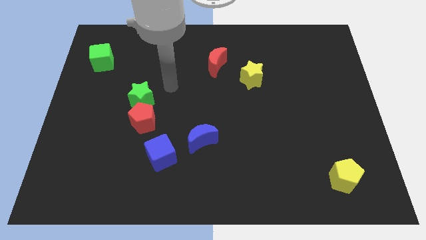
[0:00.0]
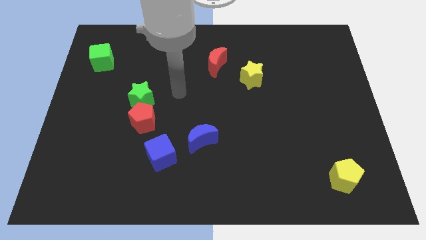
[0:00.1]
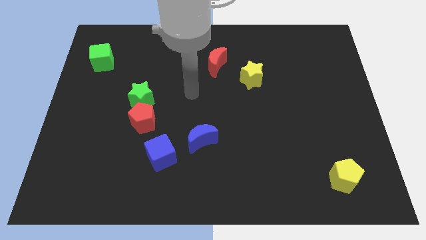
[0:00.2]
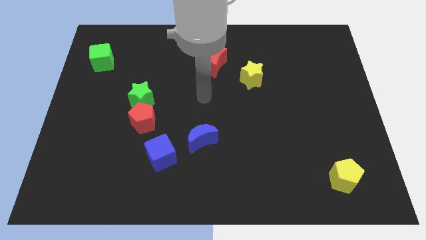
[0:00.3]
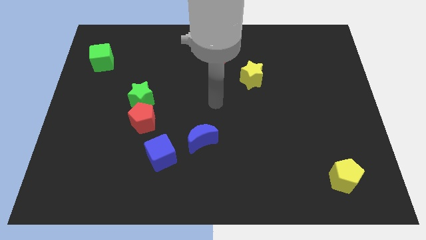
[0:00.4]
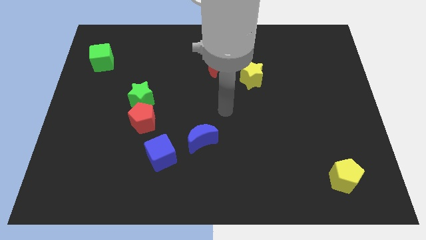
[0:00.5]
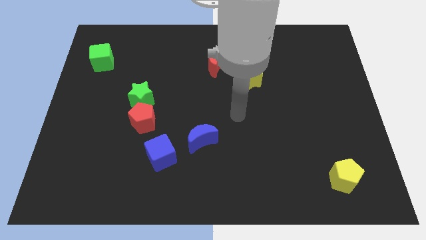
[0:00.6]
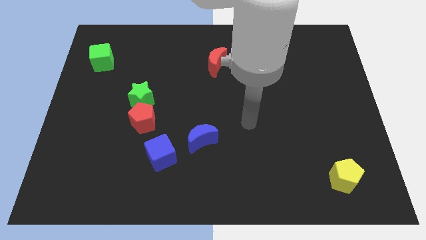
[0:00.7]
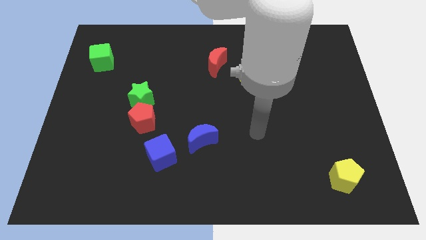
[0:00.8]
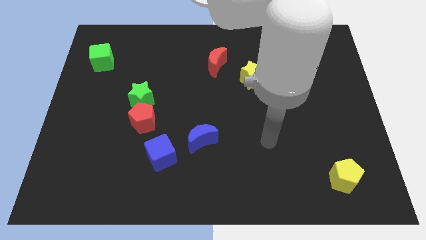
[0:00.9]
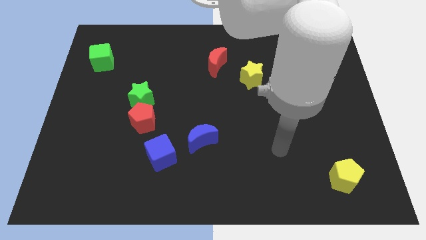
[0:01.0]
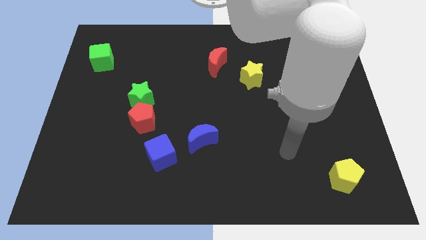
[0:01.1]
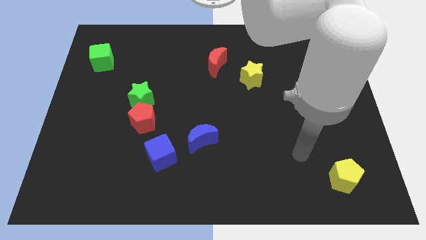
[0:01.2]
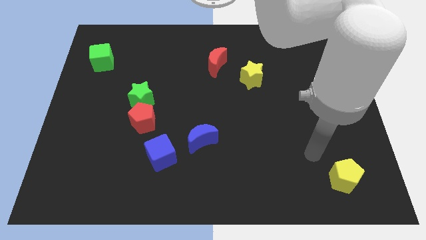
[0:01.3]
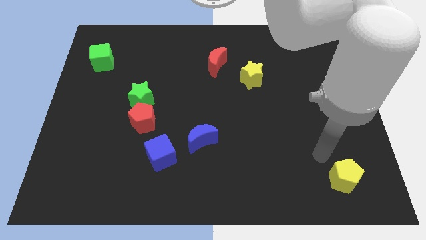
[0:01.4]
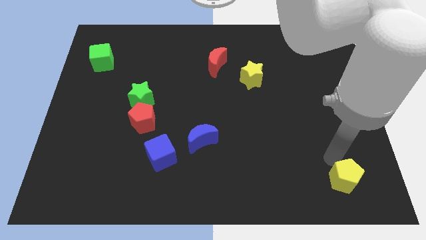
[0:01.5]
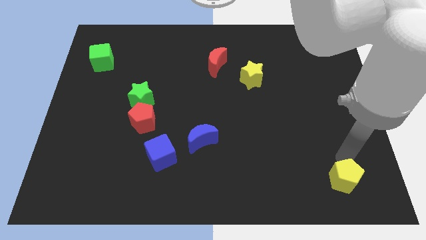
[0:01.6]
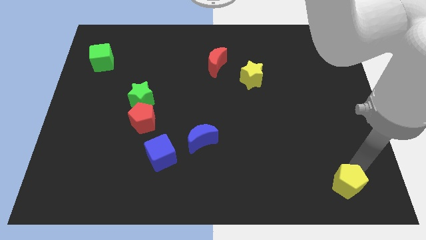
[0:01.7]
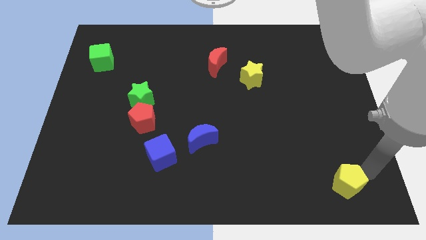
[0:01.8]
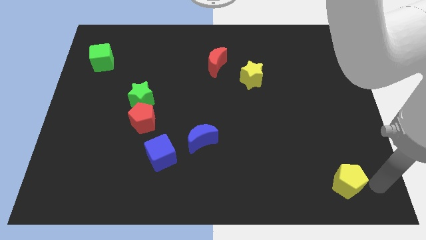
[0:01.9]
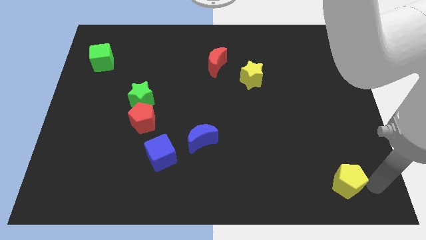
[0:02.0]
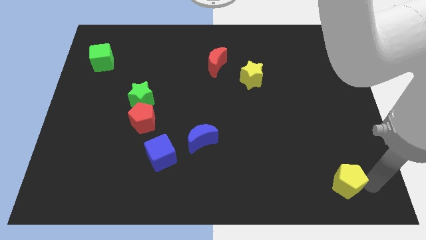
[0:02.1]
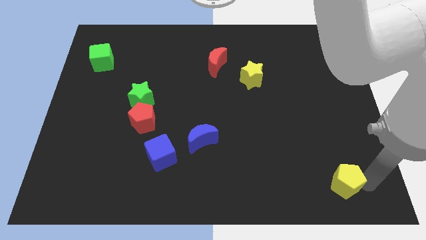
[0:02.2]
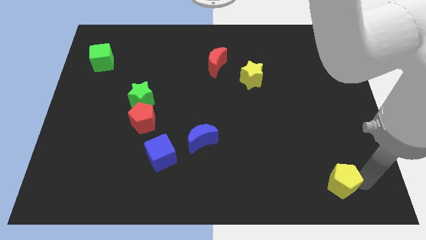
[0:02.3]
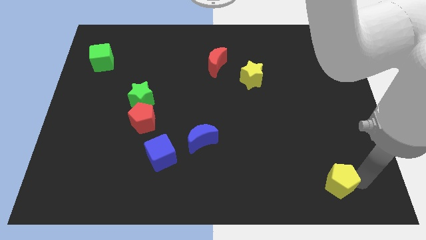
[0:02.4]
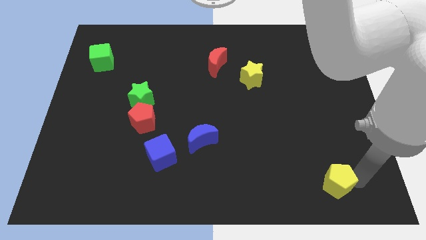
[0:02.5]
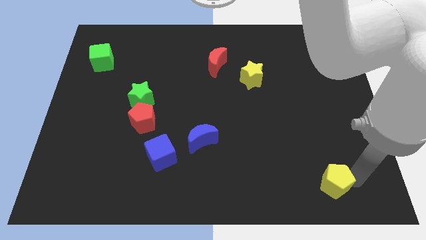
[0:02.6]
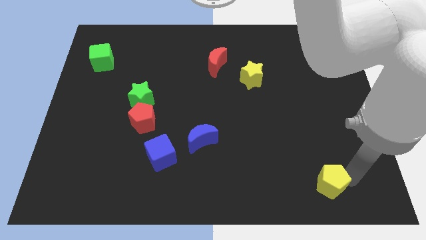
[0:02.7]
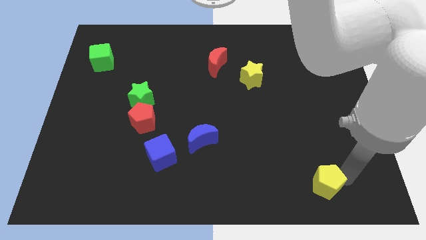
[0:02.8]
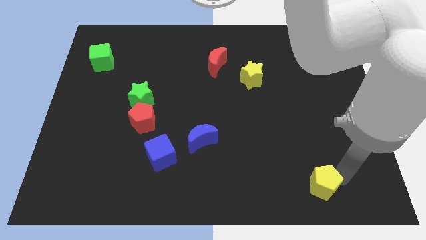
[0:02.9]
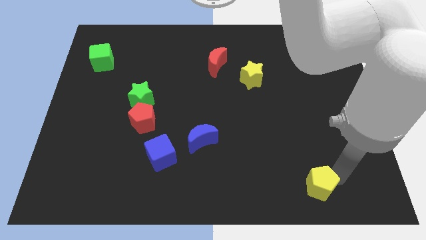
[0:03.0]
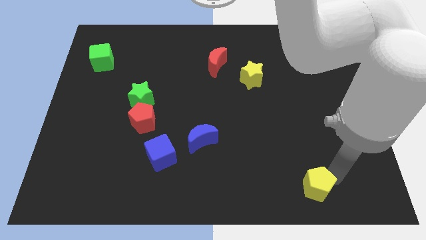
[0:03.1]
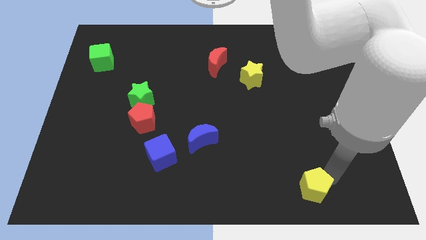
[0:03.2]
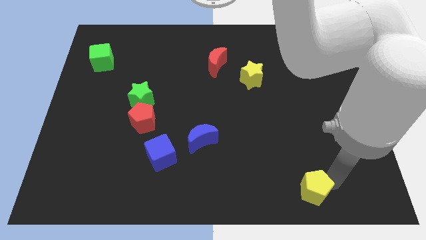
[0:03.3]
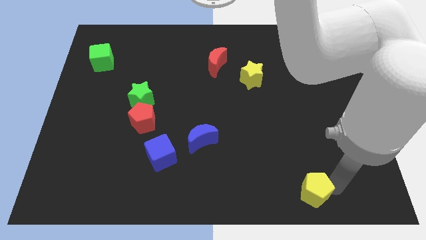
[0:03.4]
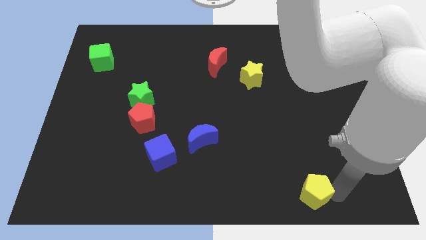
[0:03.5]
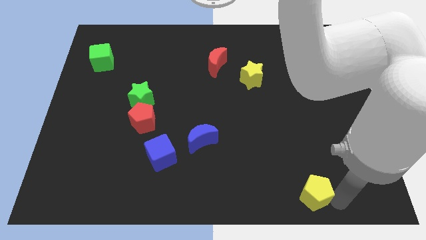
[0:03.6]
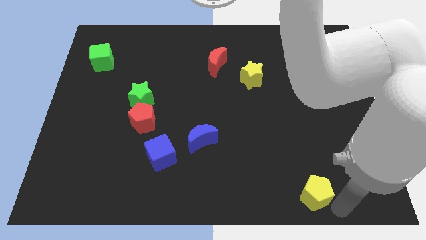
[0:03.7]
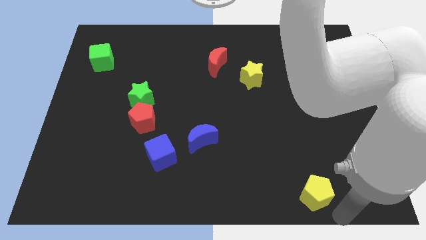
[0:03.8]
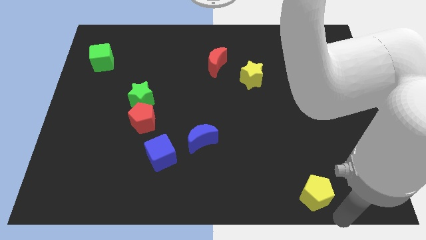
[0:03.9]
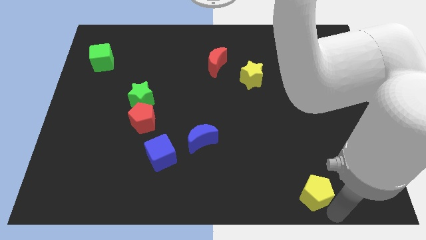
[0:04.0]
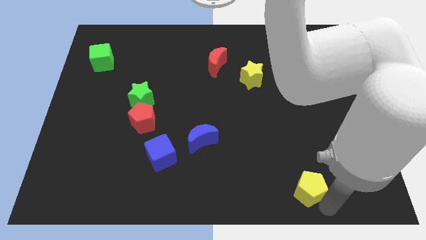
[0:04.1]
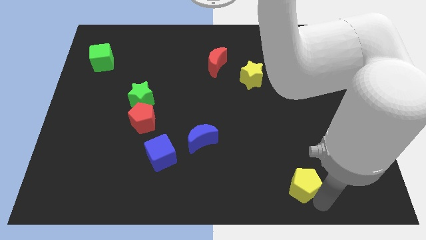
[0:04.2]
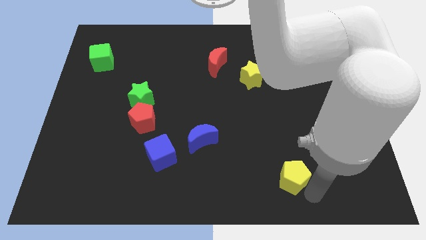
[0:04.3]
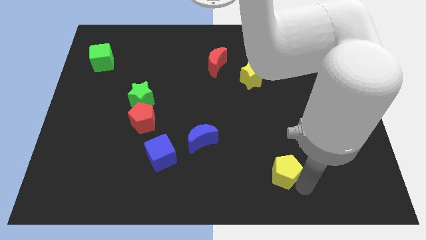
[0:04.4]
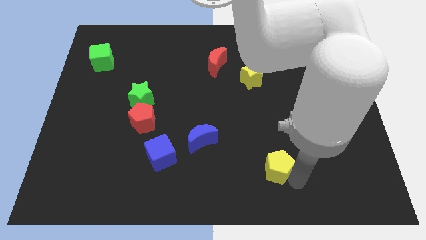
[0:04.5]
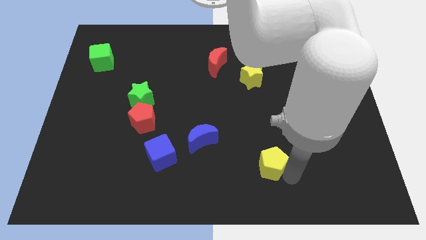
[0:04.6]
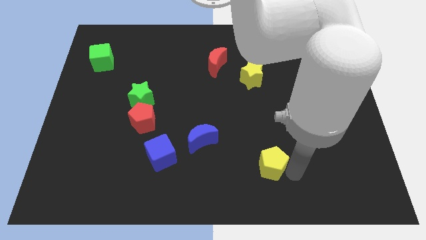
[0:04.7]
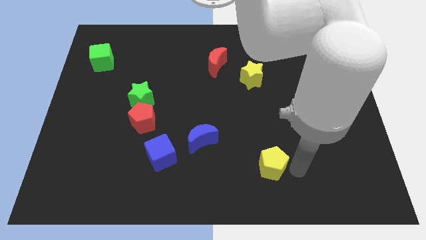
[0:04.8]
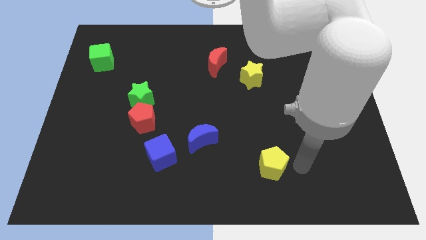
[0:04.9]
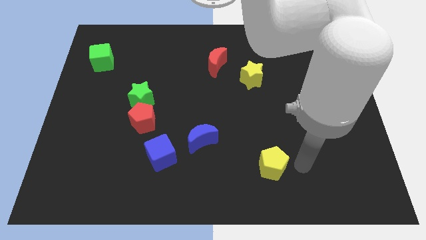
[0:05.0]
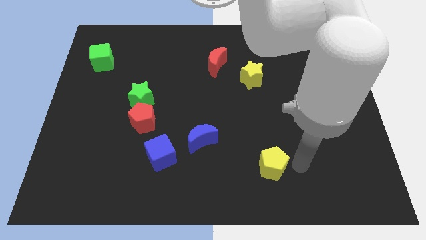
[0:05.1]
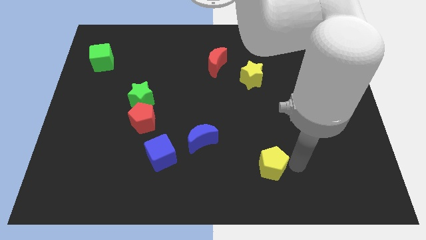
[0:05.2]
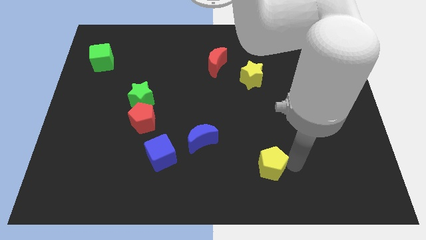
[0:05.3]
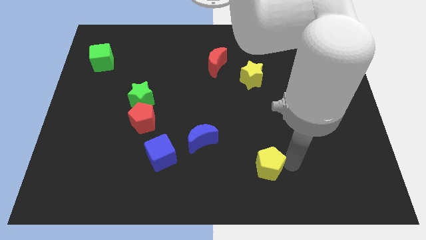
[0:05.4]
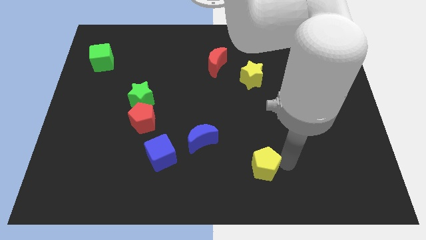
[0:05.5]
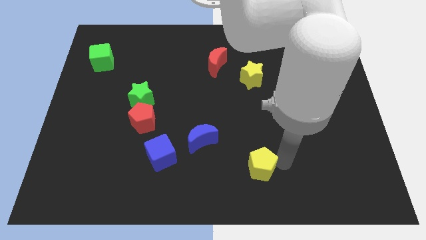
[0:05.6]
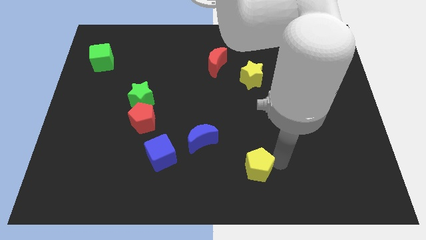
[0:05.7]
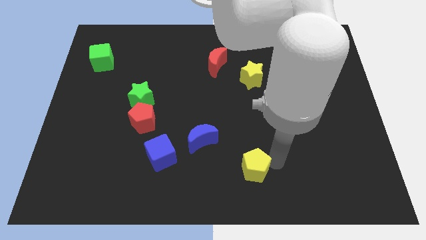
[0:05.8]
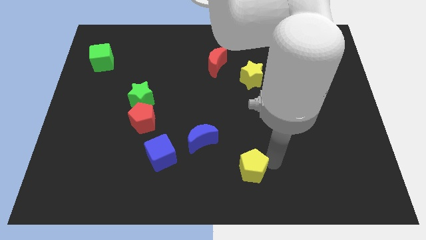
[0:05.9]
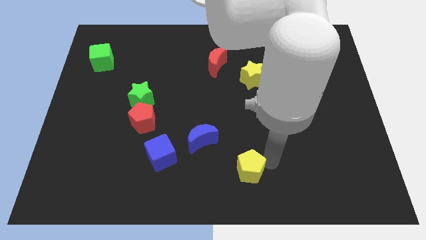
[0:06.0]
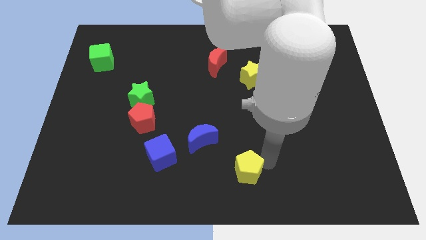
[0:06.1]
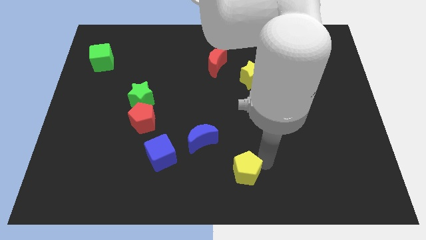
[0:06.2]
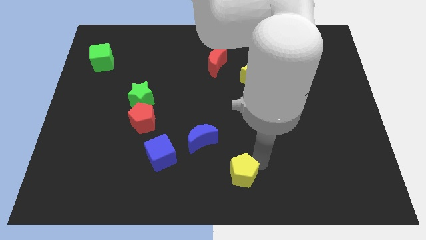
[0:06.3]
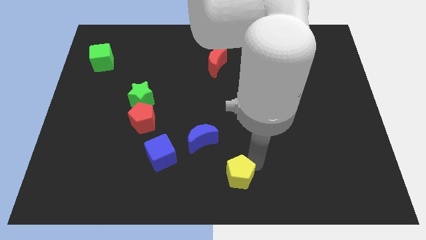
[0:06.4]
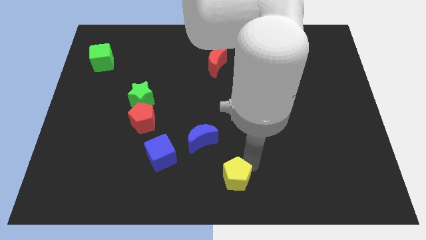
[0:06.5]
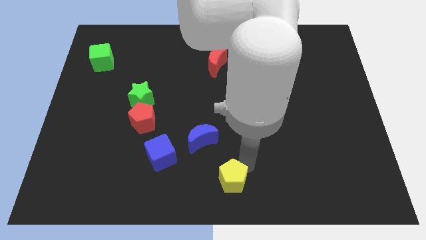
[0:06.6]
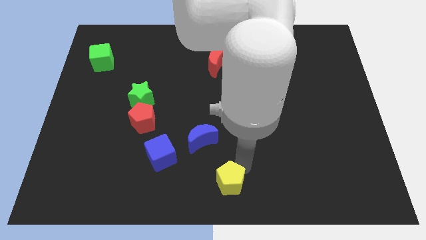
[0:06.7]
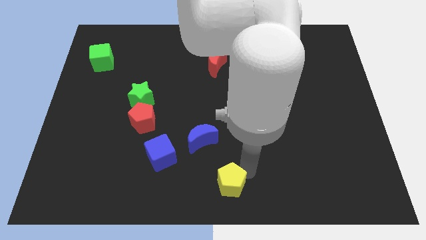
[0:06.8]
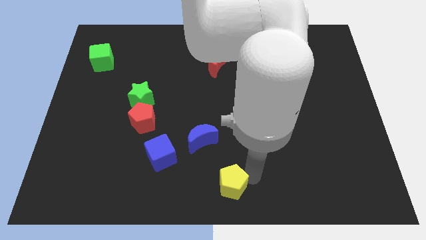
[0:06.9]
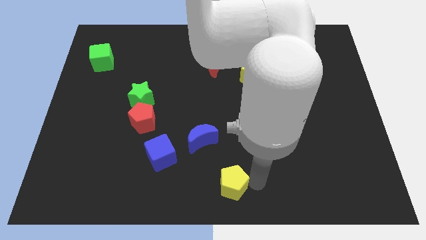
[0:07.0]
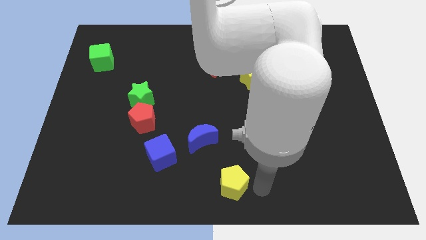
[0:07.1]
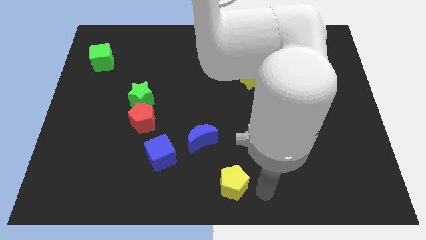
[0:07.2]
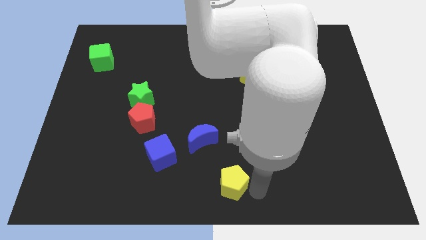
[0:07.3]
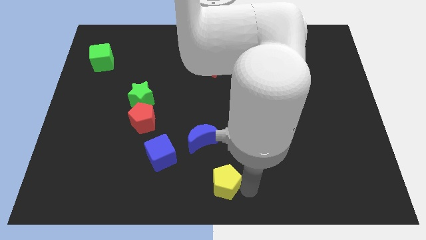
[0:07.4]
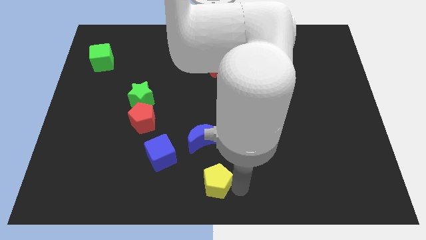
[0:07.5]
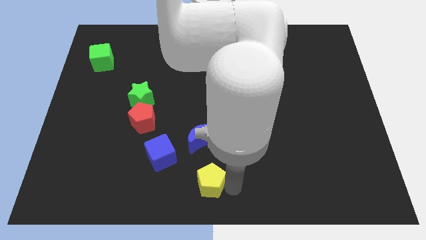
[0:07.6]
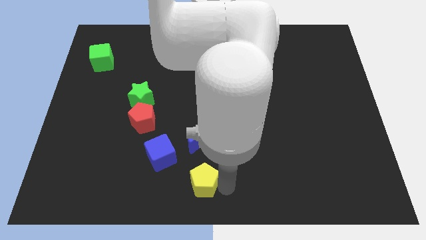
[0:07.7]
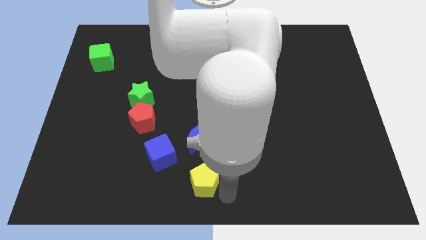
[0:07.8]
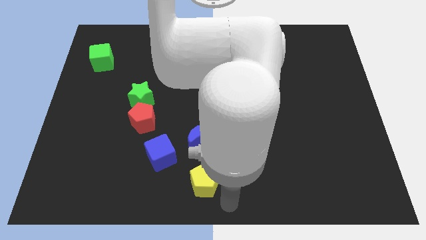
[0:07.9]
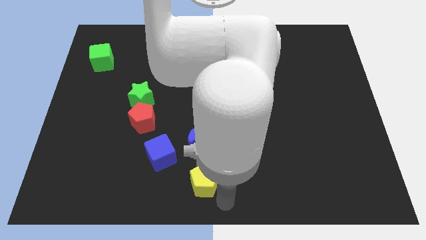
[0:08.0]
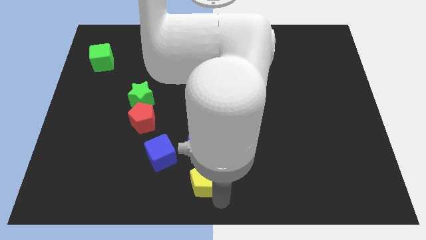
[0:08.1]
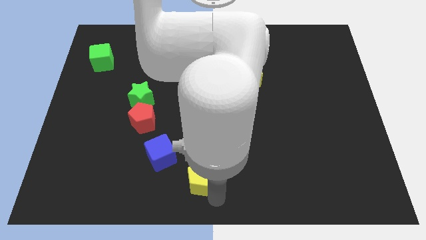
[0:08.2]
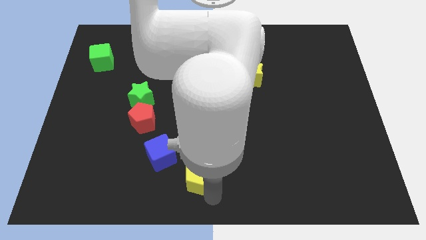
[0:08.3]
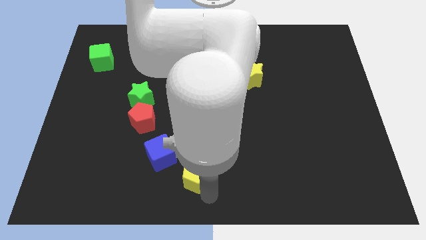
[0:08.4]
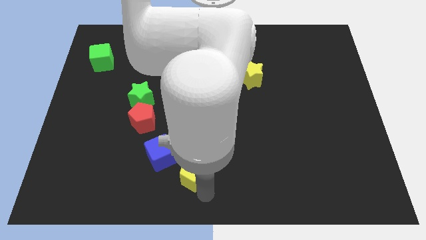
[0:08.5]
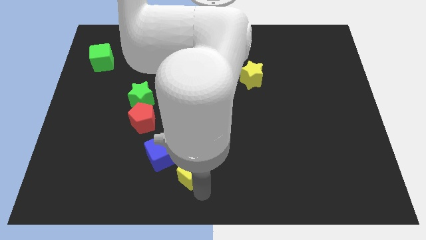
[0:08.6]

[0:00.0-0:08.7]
slide the yellow pentagon to the bottom left side of the blue moon
